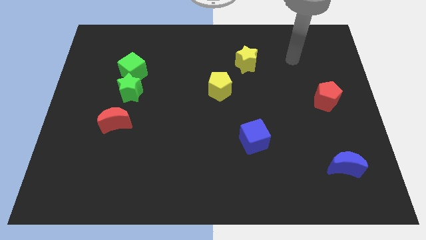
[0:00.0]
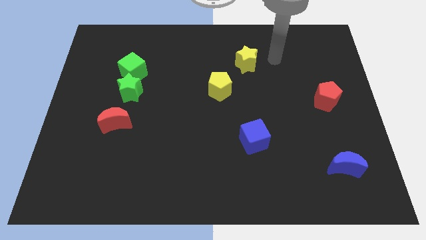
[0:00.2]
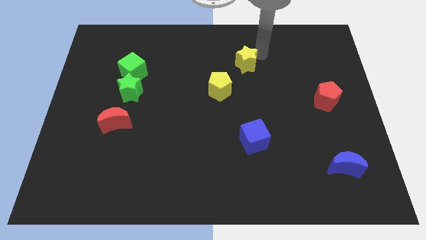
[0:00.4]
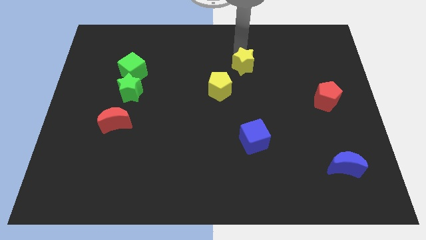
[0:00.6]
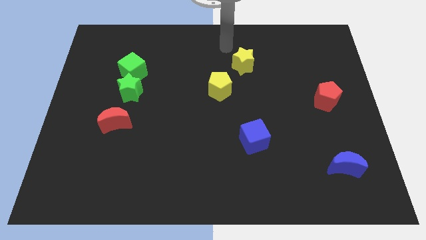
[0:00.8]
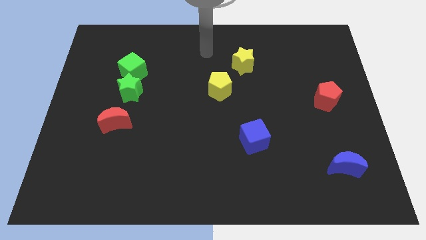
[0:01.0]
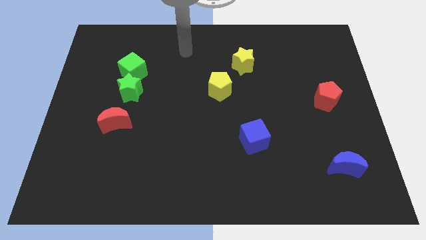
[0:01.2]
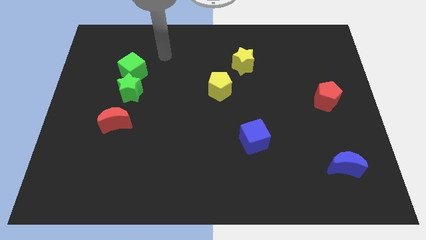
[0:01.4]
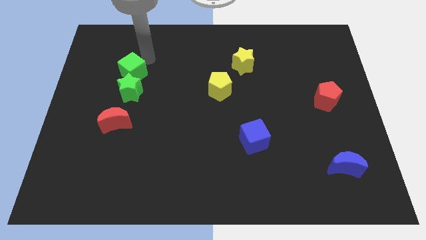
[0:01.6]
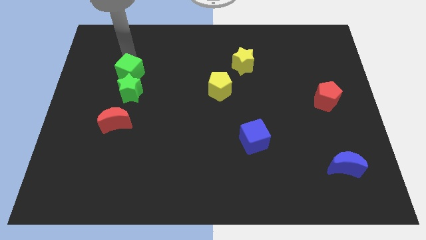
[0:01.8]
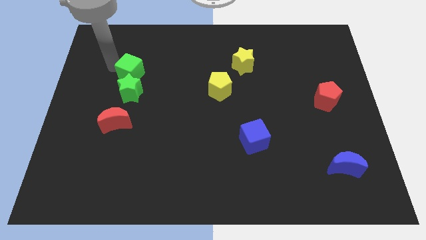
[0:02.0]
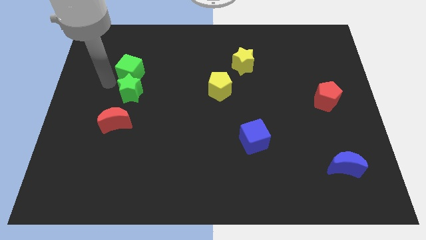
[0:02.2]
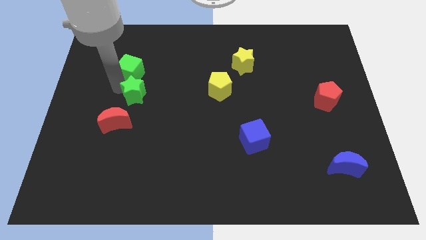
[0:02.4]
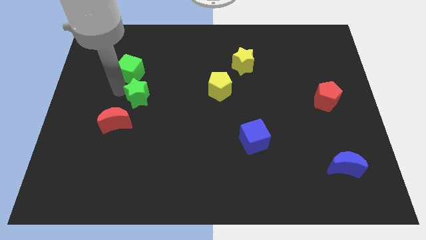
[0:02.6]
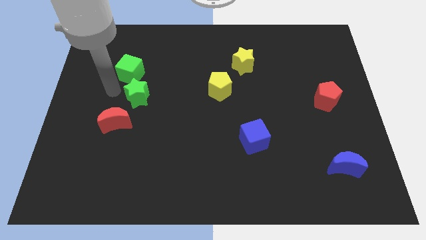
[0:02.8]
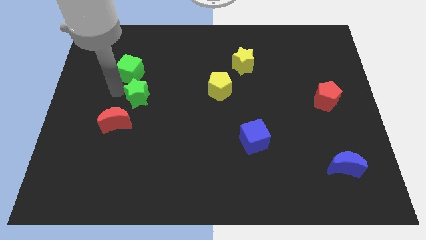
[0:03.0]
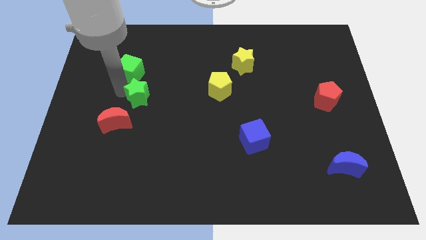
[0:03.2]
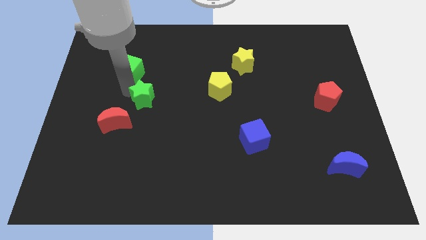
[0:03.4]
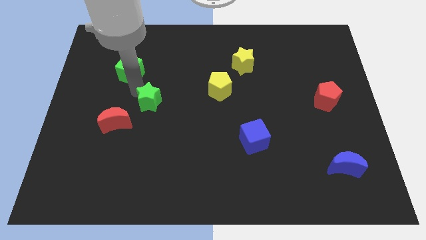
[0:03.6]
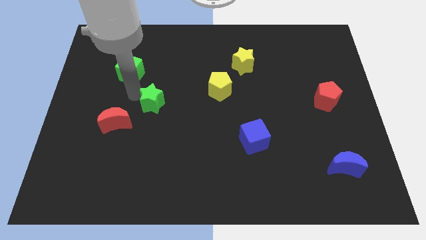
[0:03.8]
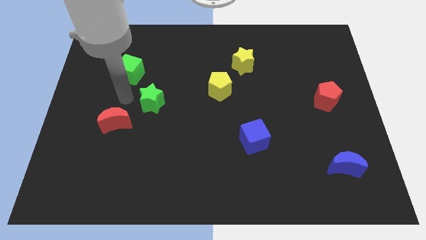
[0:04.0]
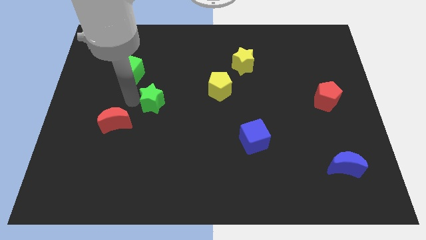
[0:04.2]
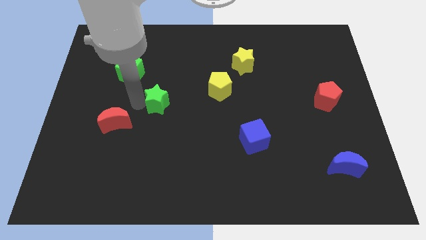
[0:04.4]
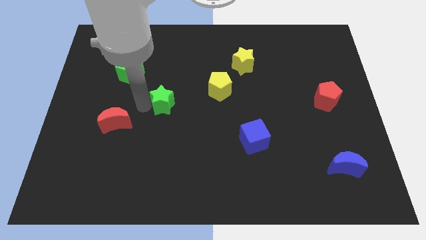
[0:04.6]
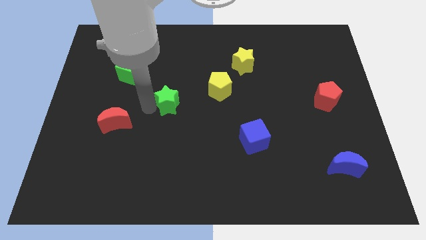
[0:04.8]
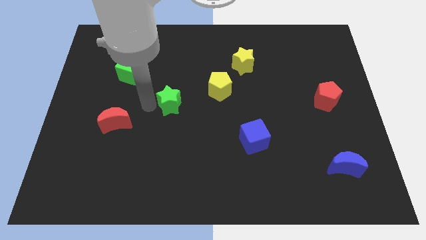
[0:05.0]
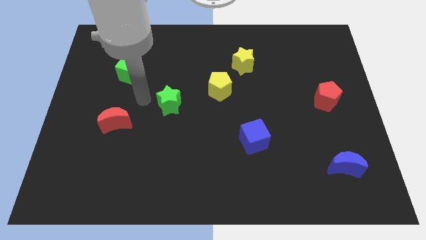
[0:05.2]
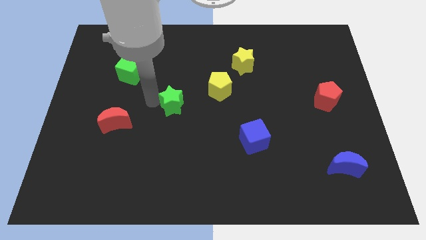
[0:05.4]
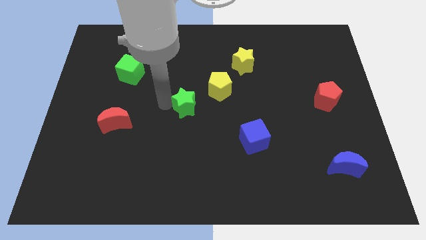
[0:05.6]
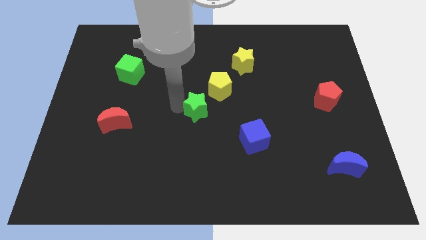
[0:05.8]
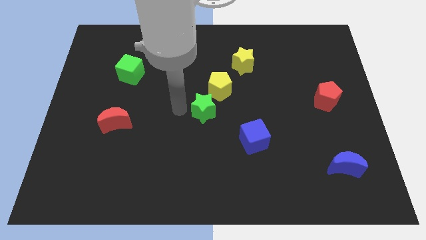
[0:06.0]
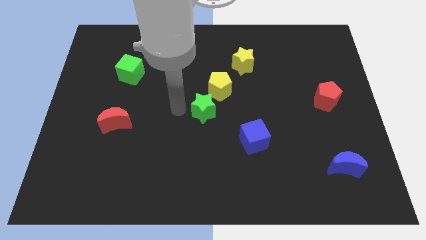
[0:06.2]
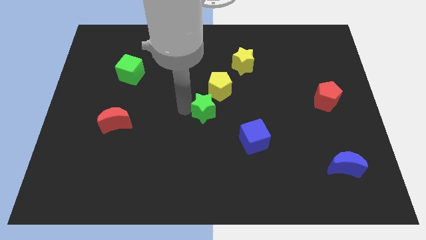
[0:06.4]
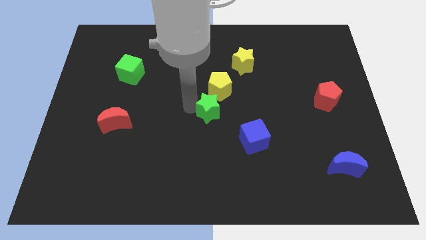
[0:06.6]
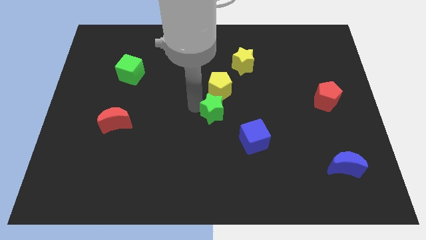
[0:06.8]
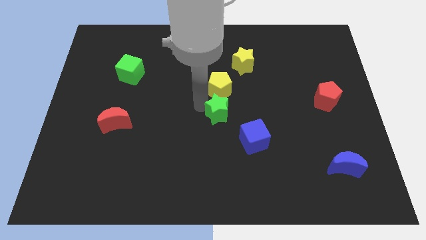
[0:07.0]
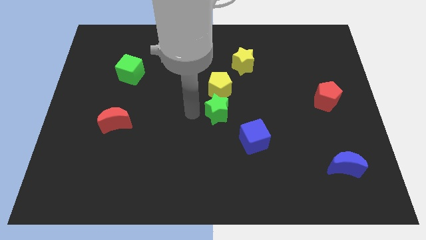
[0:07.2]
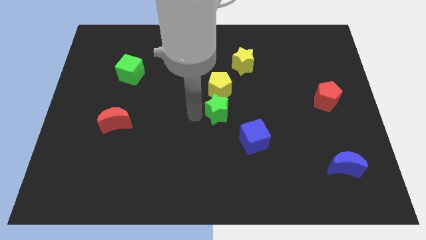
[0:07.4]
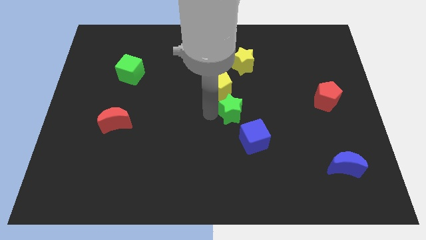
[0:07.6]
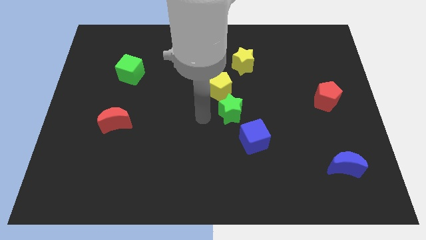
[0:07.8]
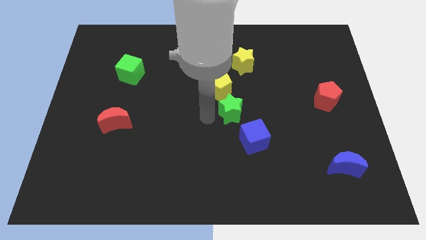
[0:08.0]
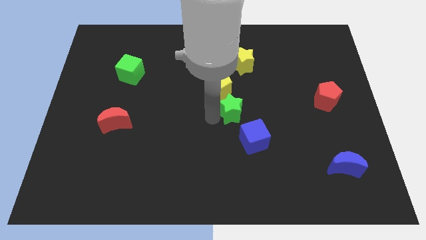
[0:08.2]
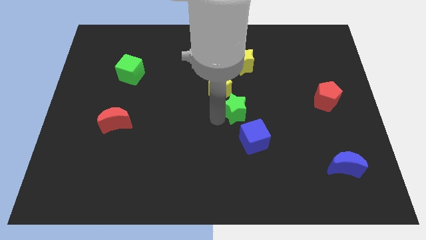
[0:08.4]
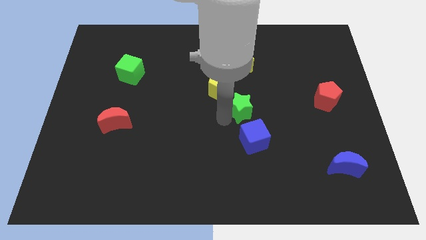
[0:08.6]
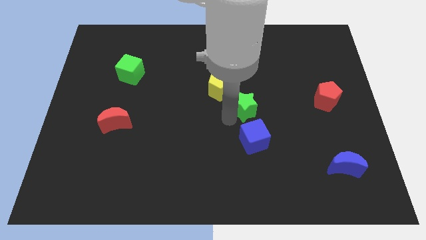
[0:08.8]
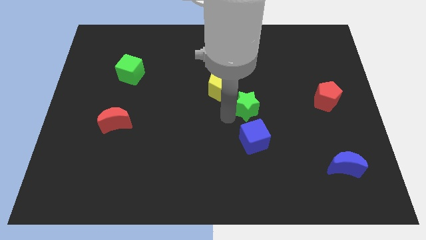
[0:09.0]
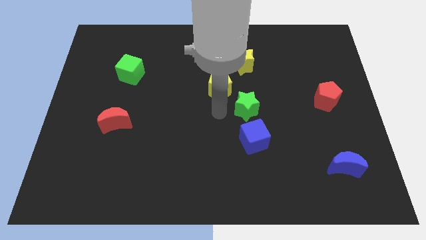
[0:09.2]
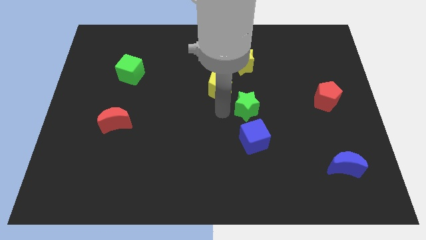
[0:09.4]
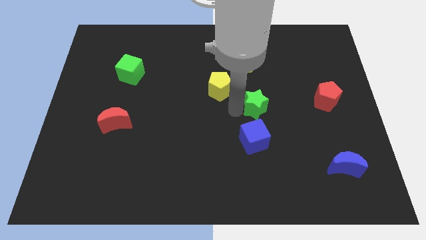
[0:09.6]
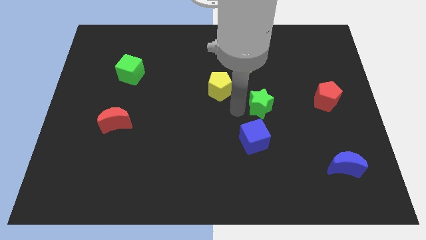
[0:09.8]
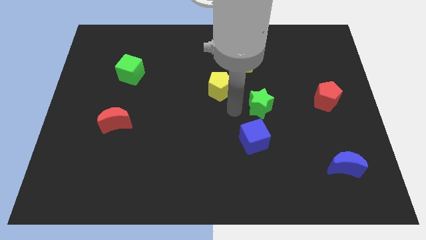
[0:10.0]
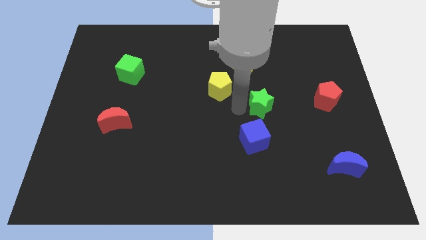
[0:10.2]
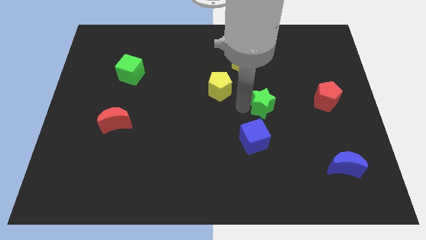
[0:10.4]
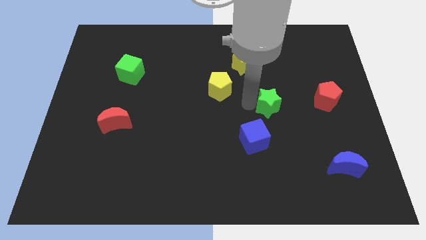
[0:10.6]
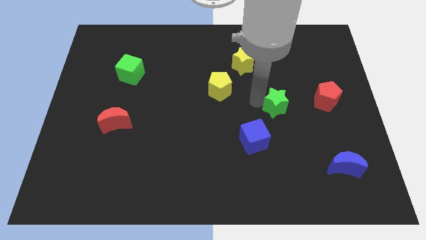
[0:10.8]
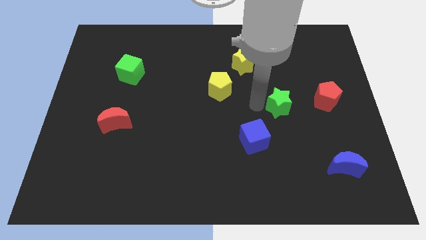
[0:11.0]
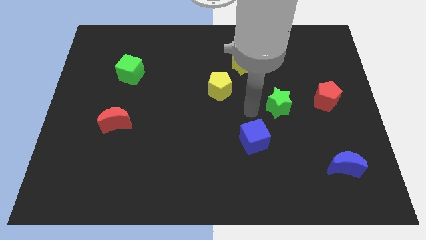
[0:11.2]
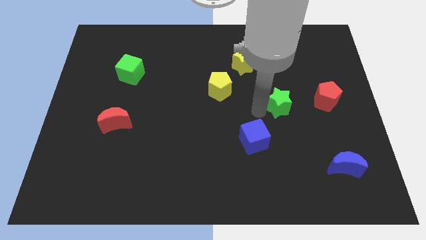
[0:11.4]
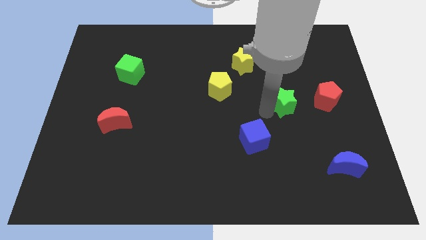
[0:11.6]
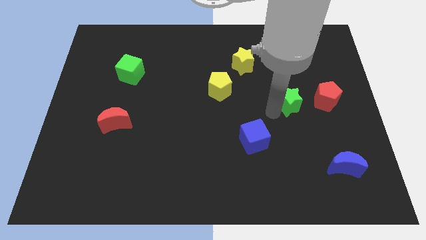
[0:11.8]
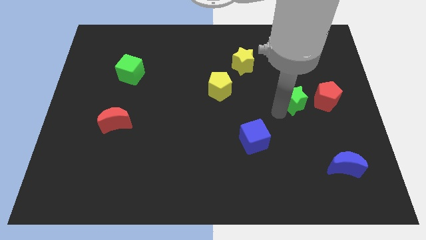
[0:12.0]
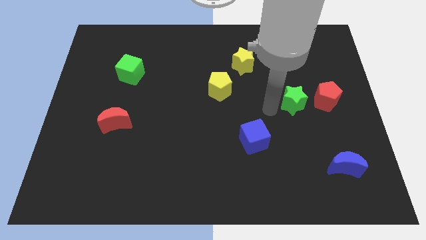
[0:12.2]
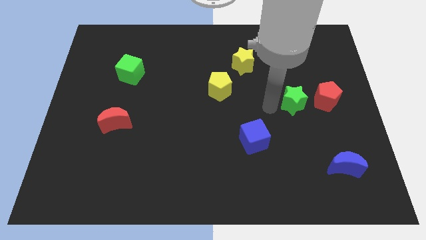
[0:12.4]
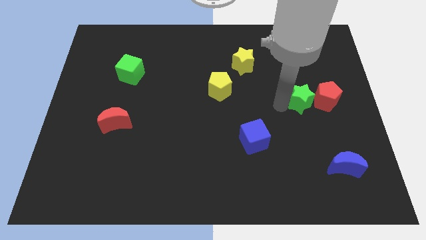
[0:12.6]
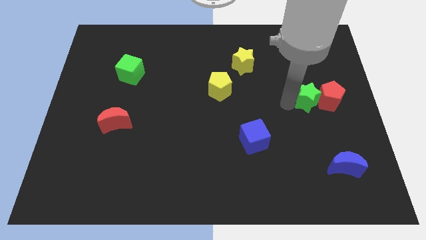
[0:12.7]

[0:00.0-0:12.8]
push the green star towards the red pentagon

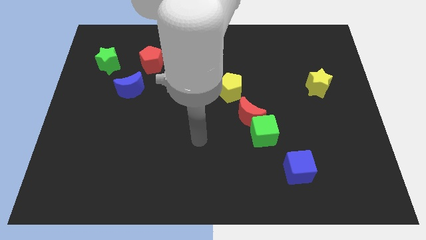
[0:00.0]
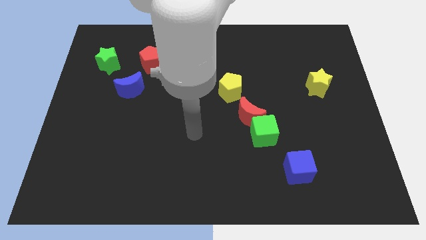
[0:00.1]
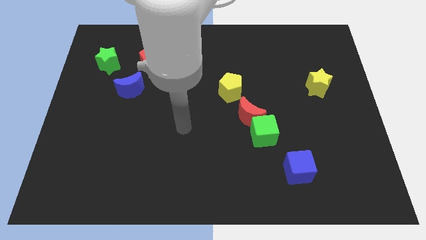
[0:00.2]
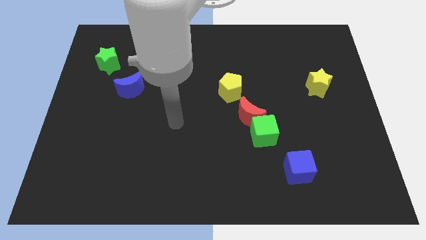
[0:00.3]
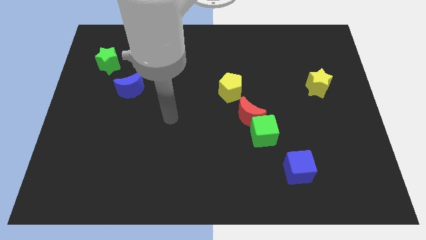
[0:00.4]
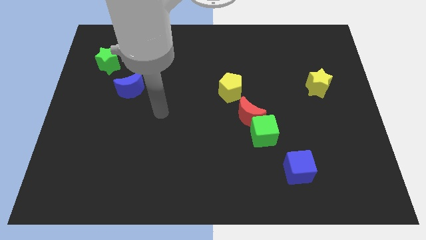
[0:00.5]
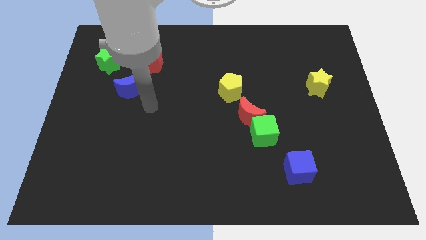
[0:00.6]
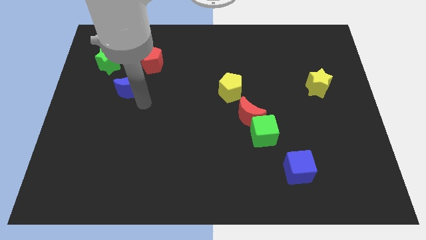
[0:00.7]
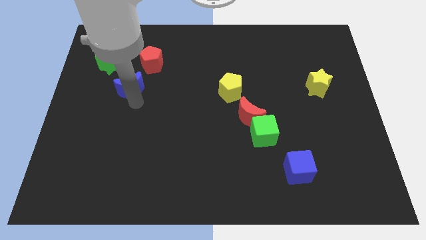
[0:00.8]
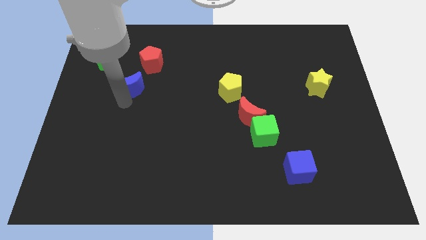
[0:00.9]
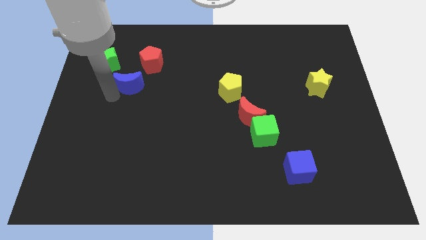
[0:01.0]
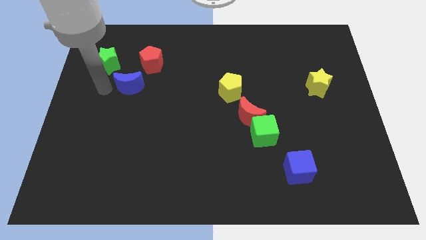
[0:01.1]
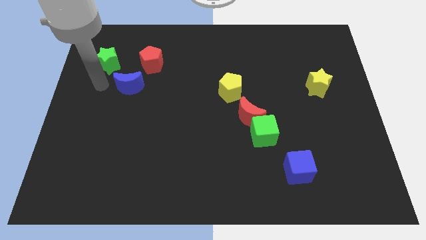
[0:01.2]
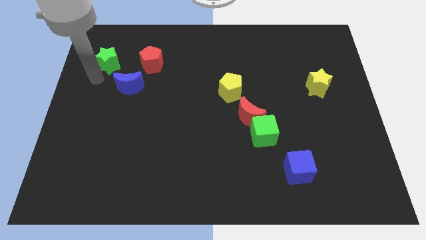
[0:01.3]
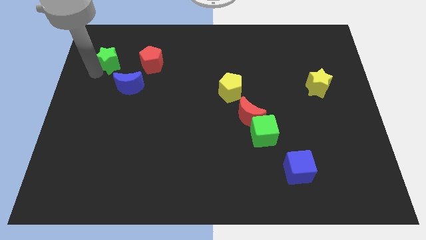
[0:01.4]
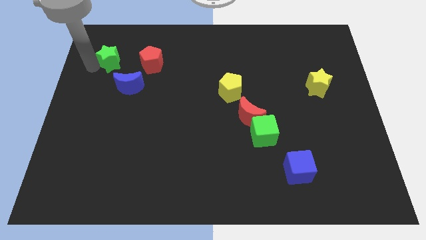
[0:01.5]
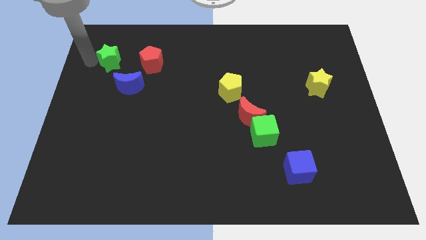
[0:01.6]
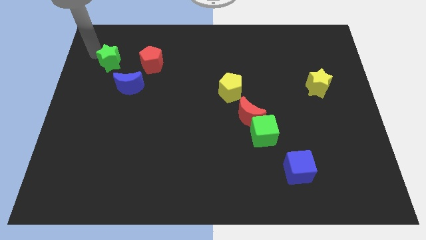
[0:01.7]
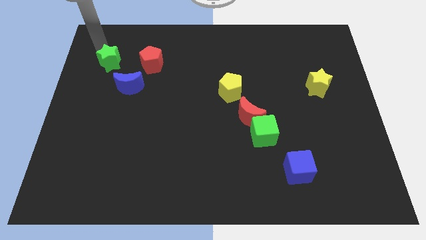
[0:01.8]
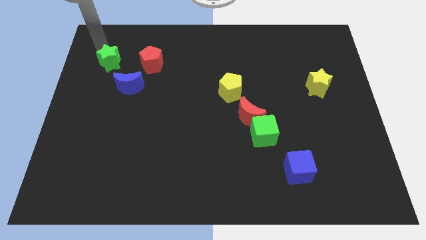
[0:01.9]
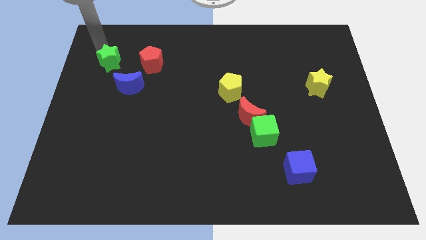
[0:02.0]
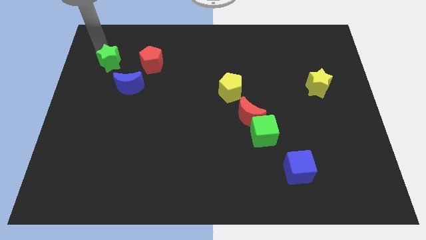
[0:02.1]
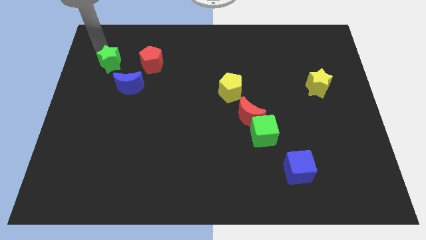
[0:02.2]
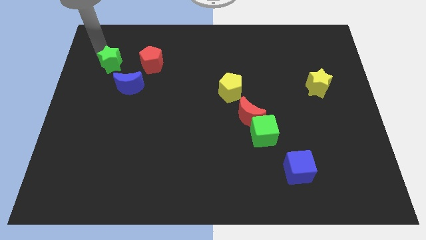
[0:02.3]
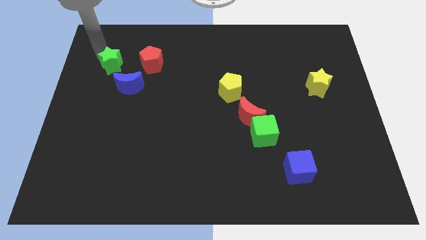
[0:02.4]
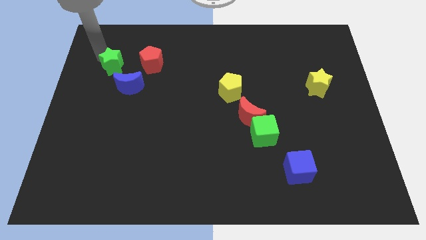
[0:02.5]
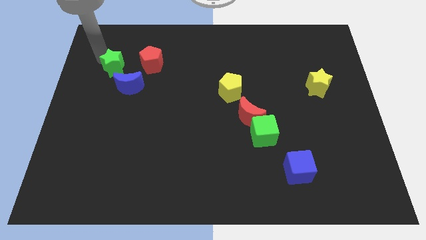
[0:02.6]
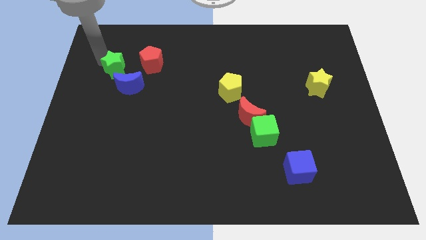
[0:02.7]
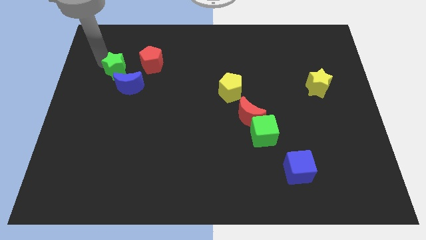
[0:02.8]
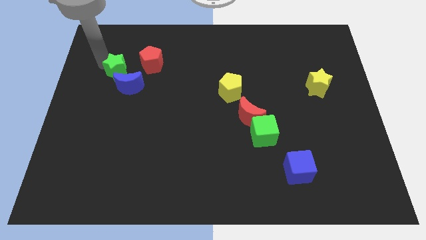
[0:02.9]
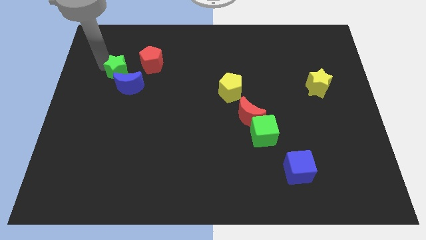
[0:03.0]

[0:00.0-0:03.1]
push the green star towards the blue moon
